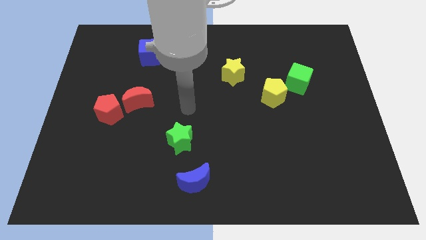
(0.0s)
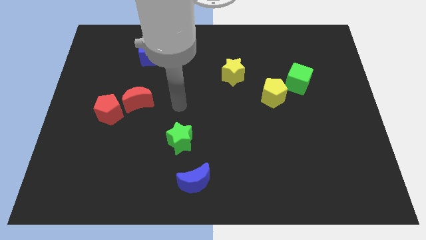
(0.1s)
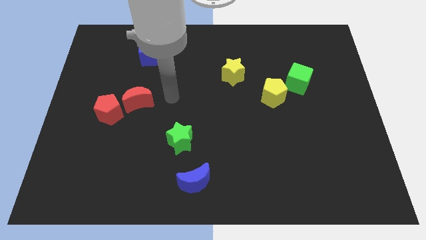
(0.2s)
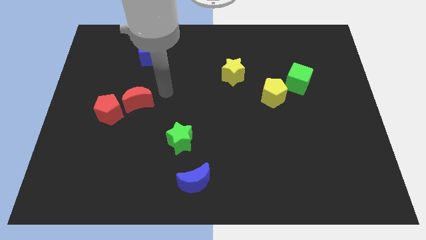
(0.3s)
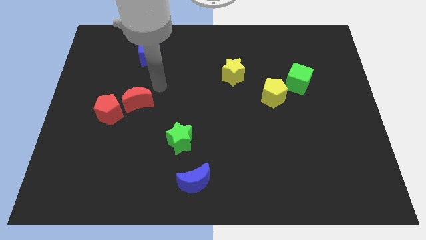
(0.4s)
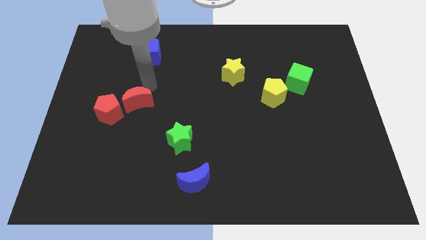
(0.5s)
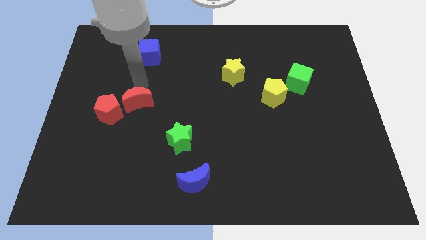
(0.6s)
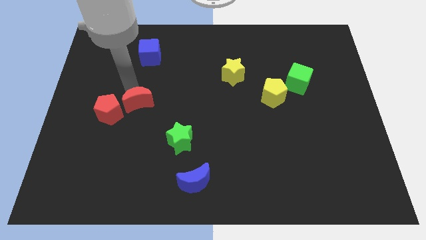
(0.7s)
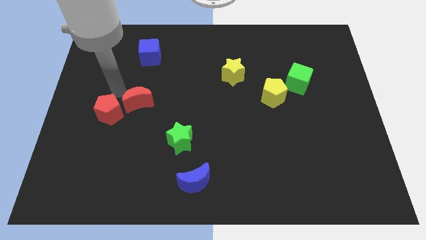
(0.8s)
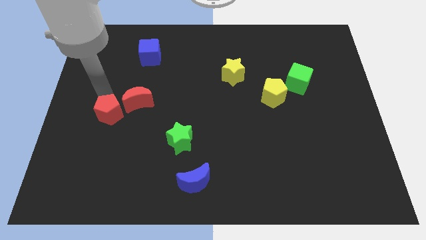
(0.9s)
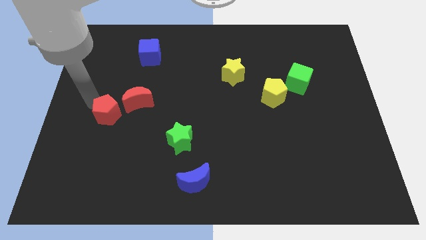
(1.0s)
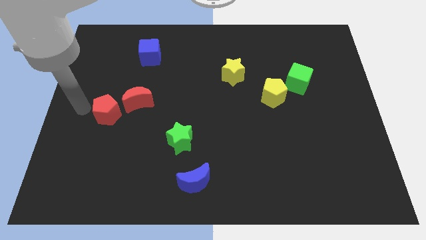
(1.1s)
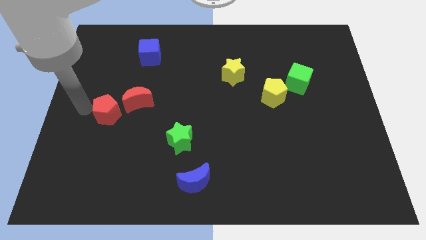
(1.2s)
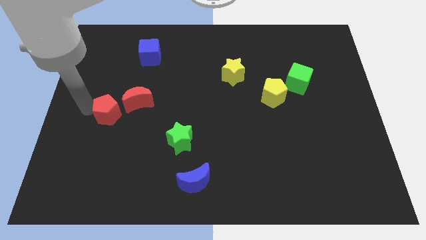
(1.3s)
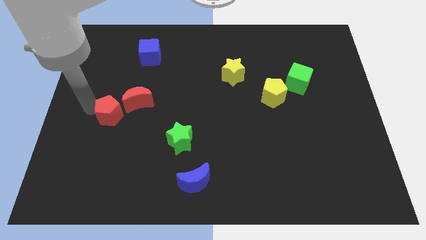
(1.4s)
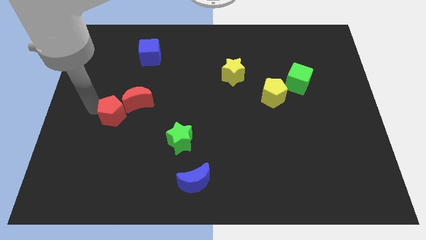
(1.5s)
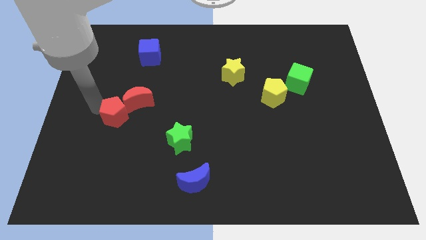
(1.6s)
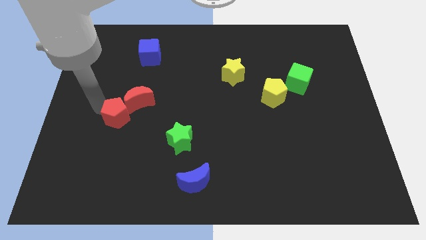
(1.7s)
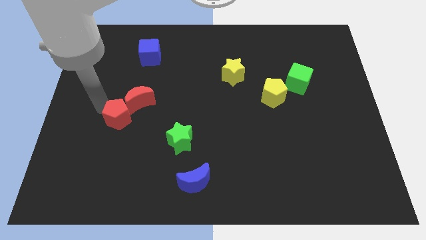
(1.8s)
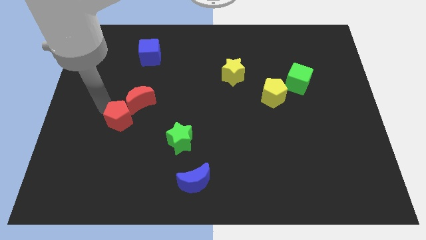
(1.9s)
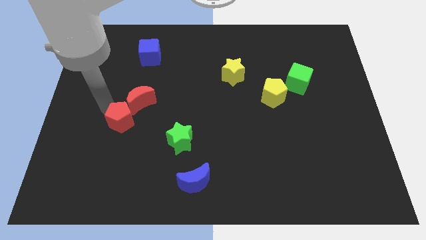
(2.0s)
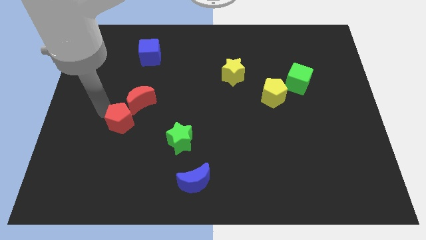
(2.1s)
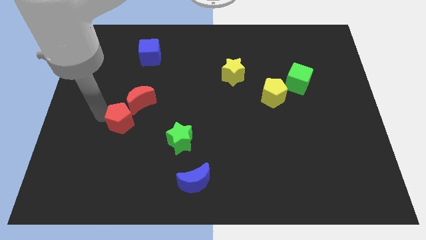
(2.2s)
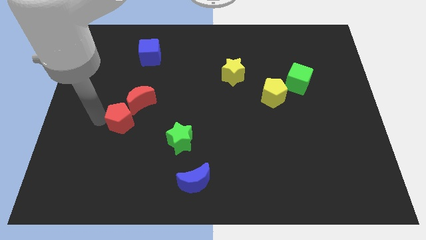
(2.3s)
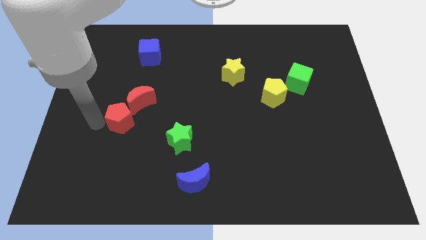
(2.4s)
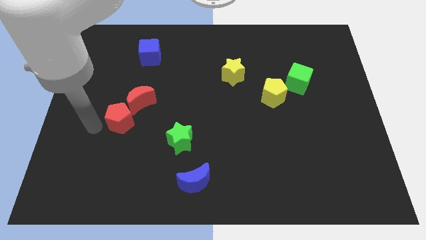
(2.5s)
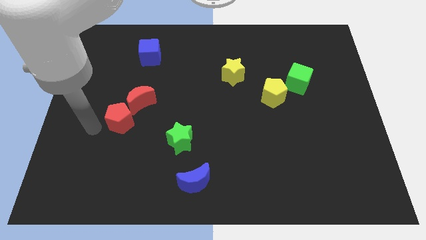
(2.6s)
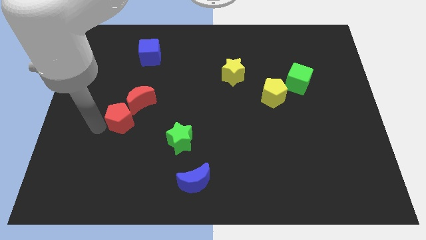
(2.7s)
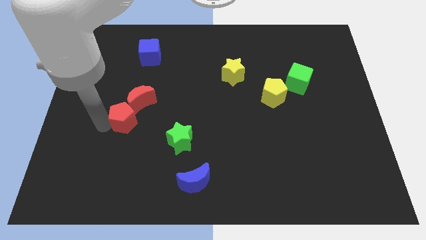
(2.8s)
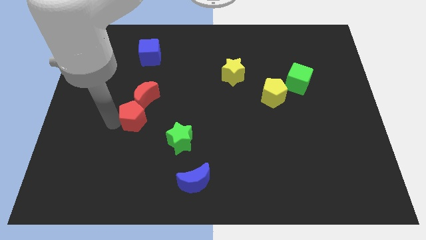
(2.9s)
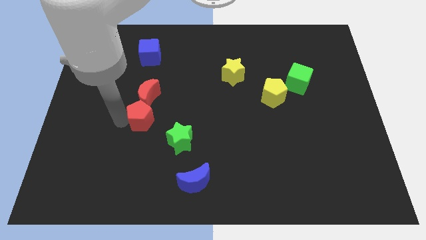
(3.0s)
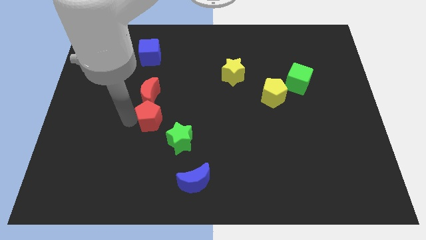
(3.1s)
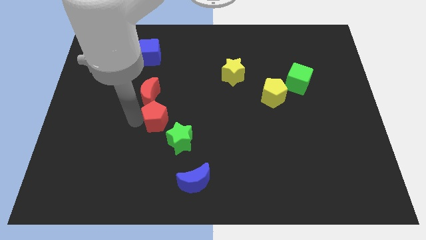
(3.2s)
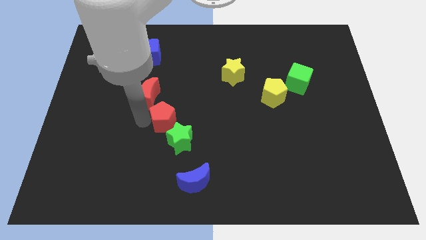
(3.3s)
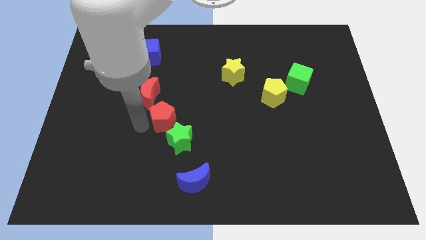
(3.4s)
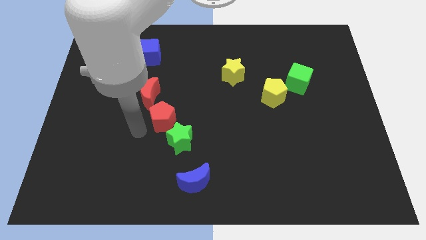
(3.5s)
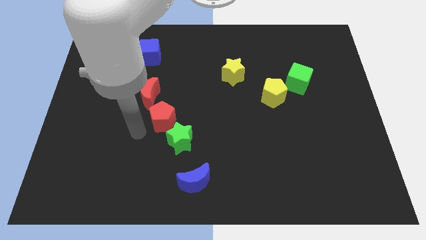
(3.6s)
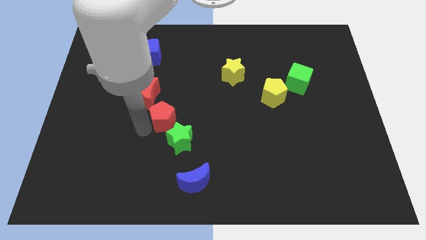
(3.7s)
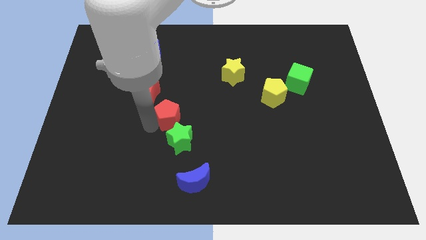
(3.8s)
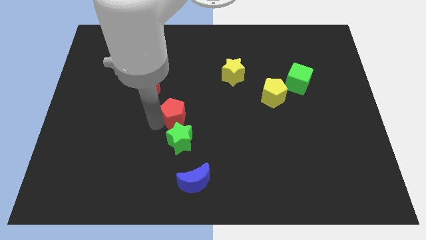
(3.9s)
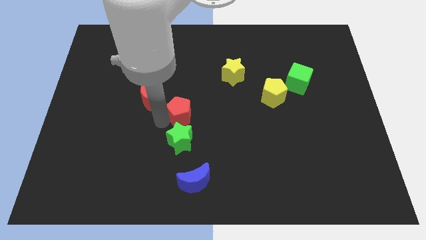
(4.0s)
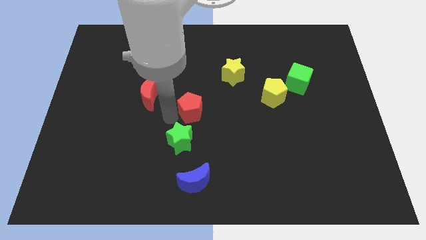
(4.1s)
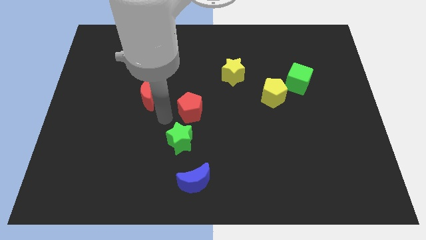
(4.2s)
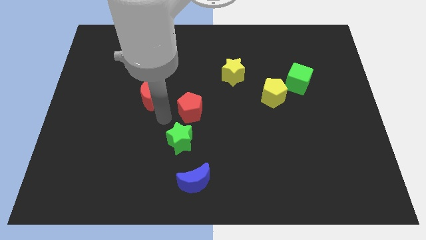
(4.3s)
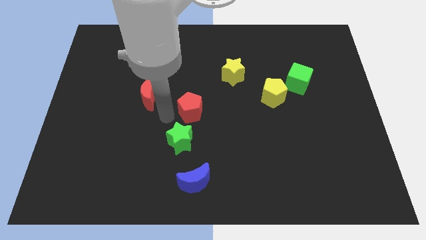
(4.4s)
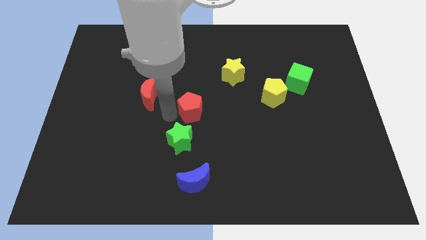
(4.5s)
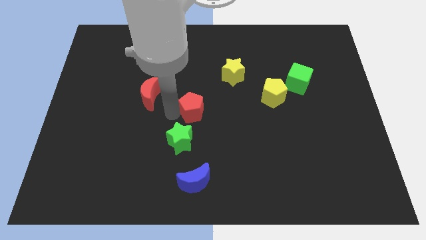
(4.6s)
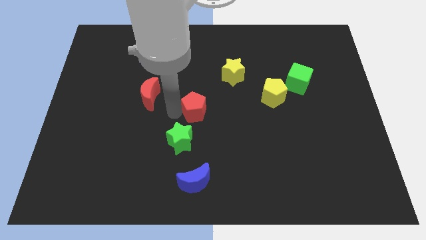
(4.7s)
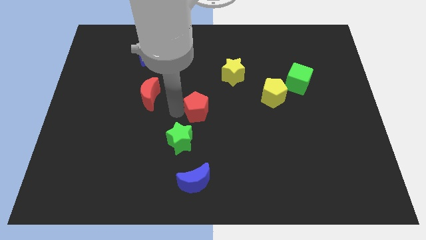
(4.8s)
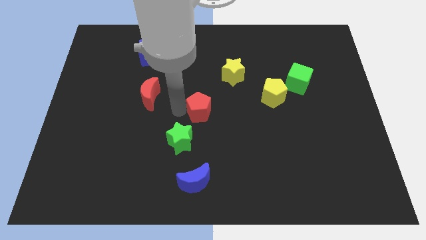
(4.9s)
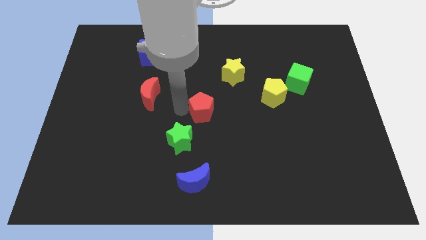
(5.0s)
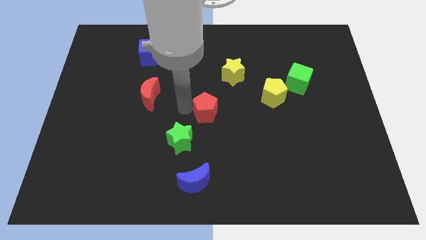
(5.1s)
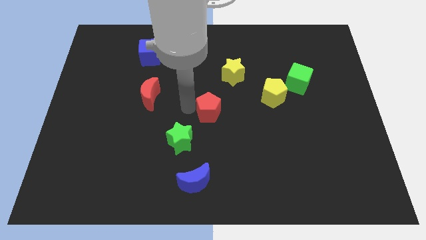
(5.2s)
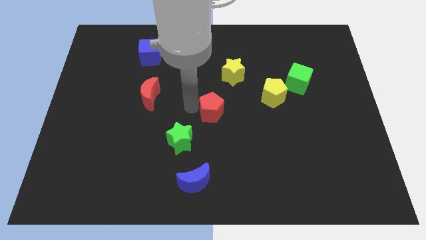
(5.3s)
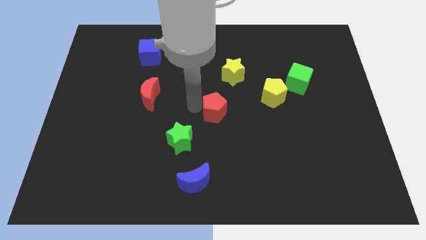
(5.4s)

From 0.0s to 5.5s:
push the red pentagon to the bottom side of the yellow star

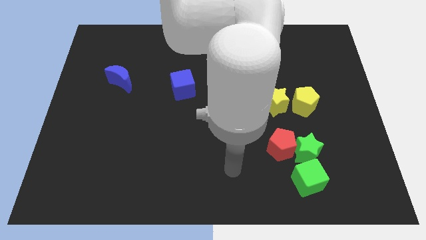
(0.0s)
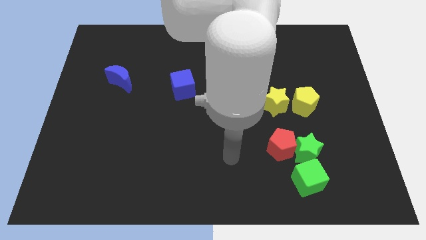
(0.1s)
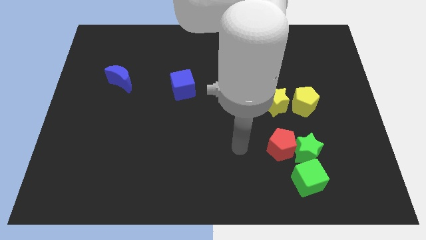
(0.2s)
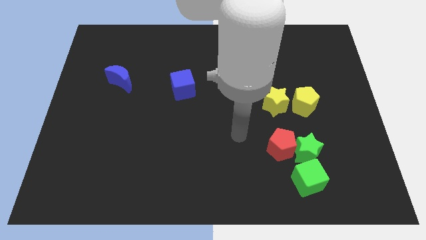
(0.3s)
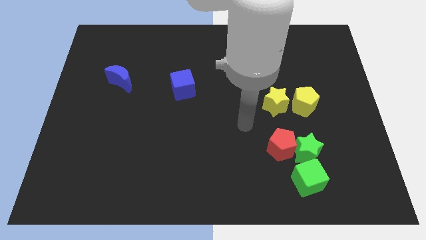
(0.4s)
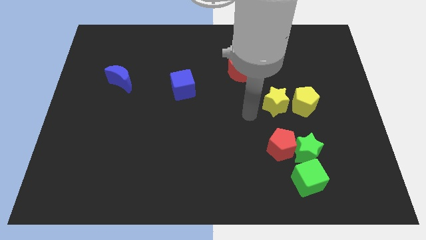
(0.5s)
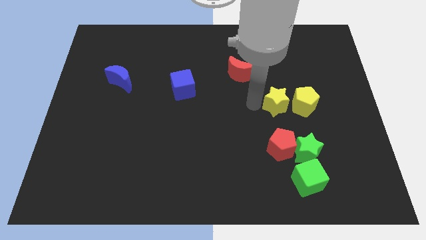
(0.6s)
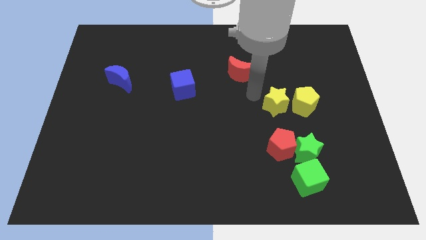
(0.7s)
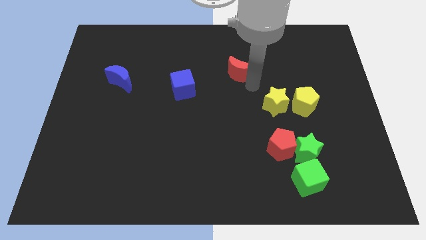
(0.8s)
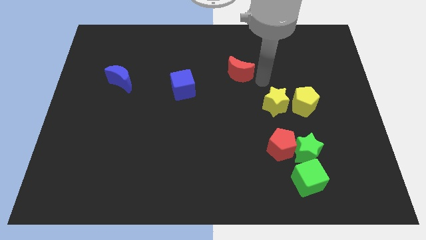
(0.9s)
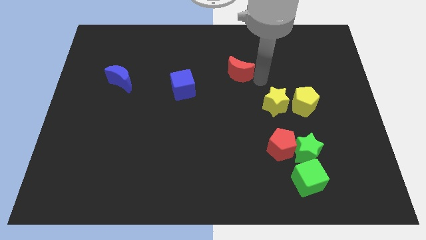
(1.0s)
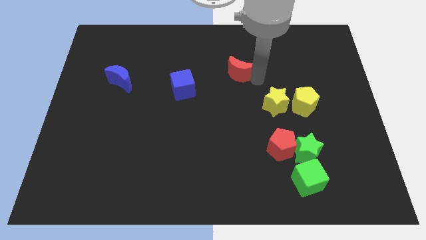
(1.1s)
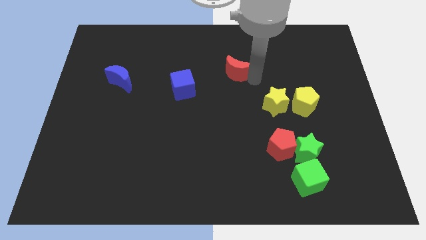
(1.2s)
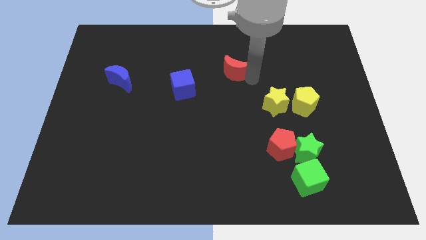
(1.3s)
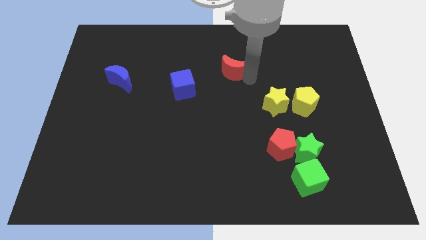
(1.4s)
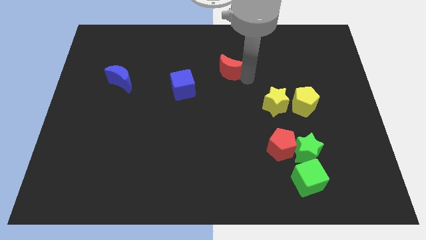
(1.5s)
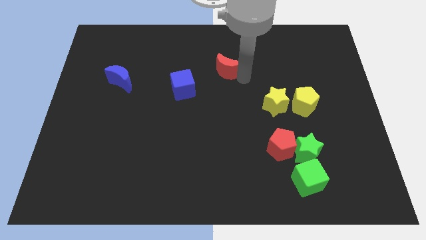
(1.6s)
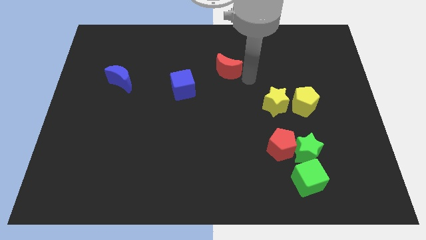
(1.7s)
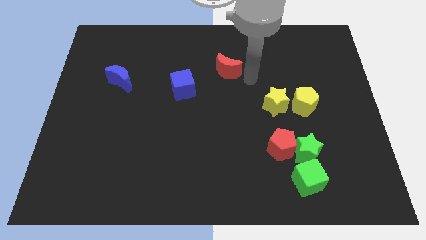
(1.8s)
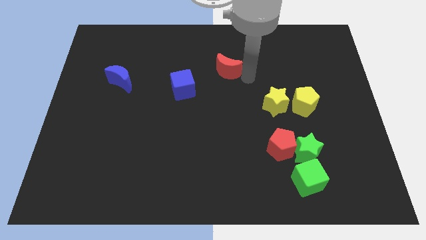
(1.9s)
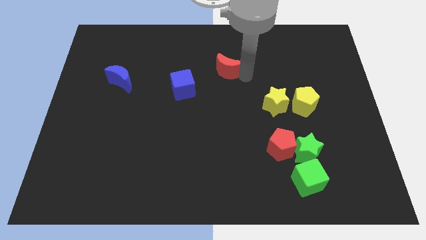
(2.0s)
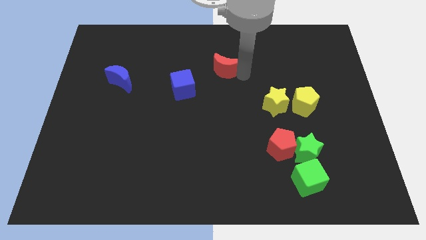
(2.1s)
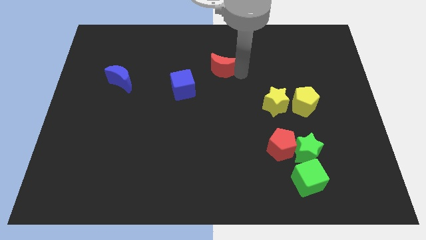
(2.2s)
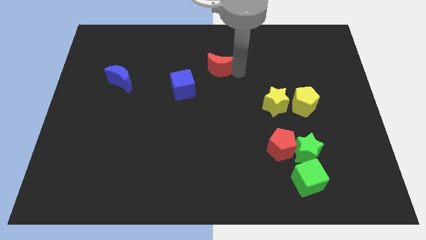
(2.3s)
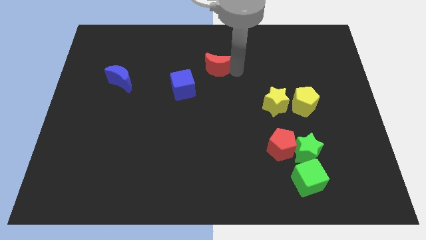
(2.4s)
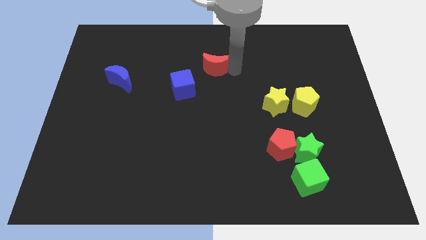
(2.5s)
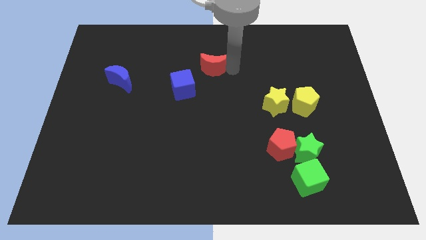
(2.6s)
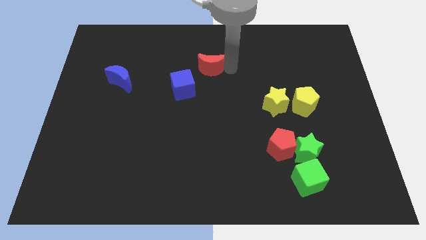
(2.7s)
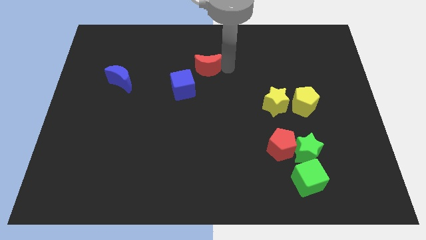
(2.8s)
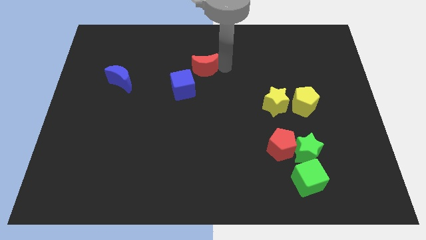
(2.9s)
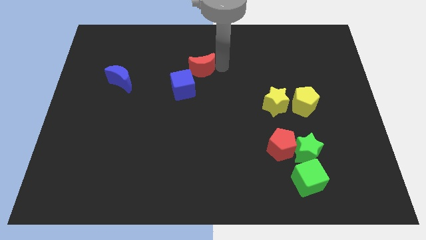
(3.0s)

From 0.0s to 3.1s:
put the red moon above the blue cube
